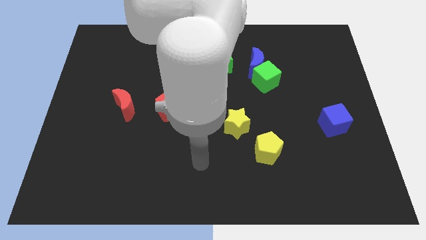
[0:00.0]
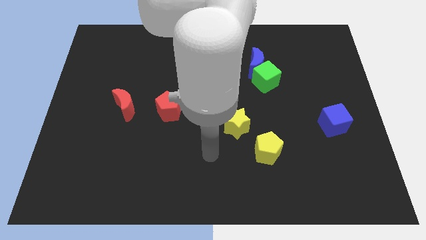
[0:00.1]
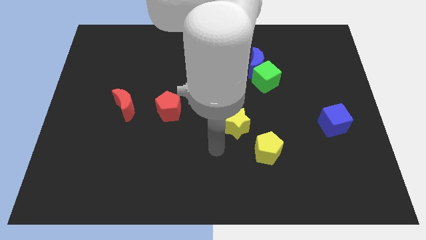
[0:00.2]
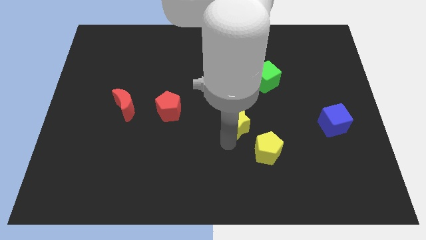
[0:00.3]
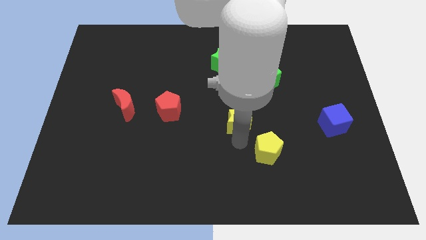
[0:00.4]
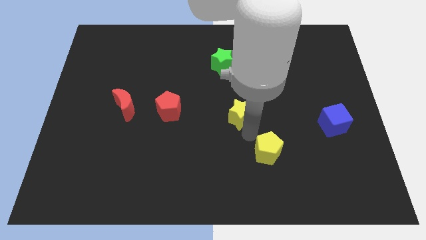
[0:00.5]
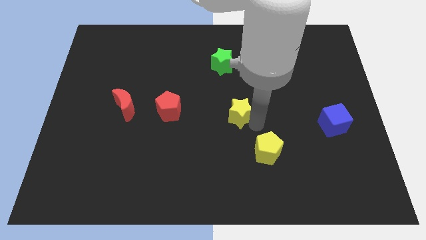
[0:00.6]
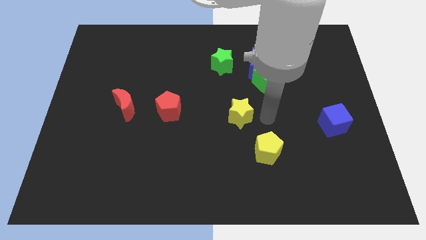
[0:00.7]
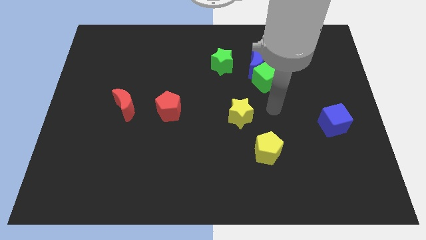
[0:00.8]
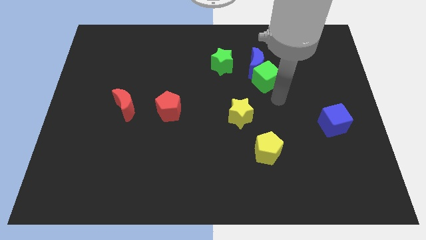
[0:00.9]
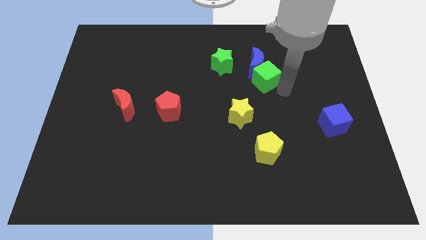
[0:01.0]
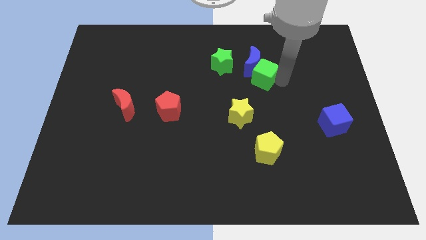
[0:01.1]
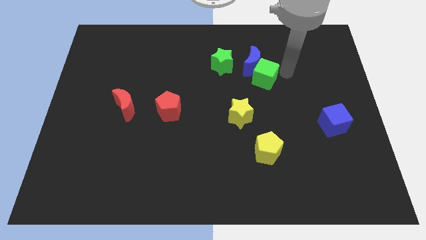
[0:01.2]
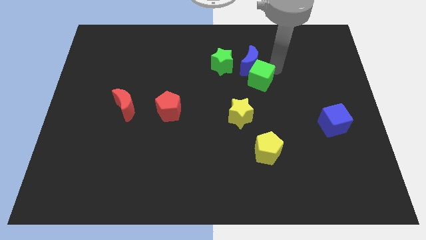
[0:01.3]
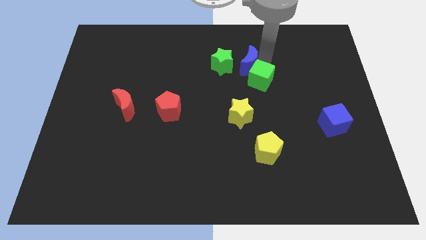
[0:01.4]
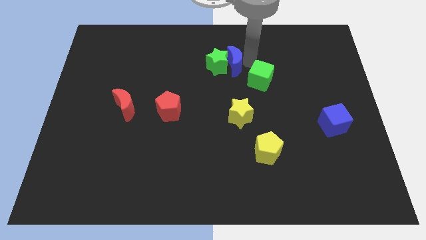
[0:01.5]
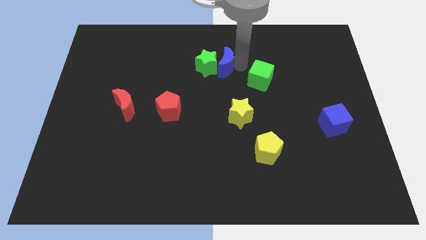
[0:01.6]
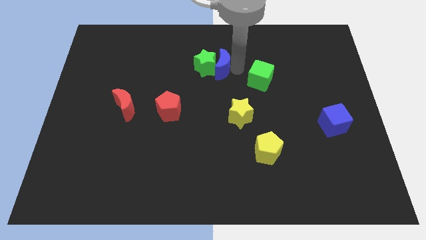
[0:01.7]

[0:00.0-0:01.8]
move the green cube away from the blue moon

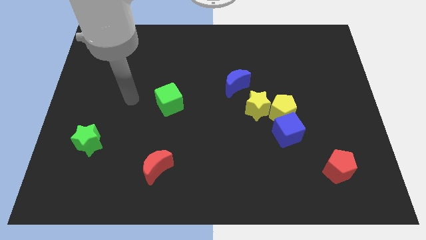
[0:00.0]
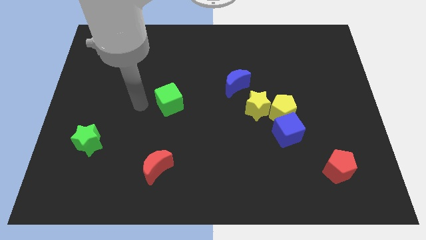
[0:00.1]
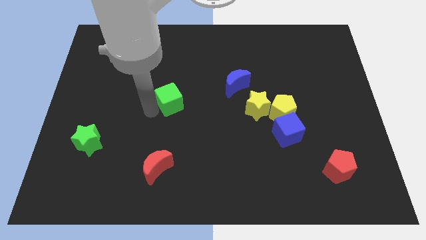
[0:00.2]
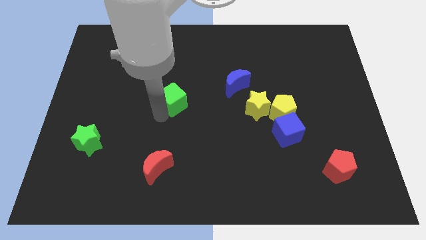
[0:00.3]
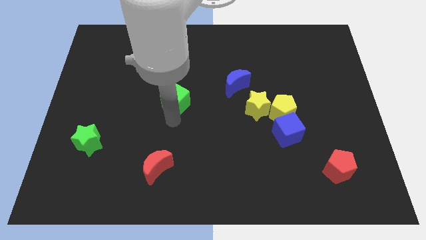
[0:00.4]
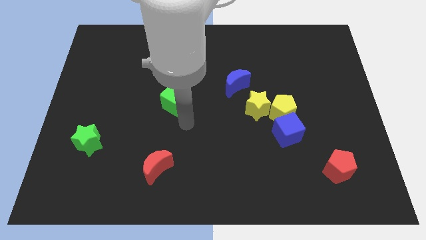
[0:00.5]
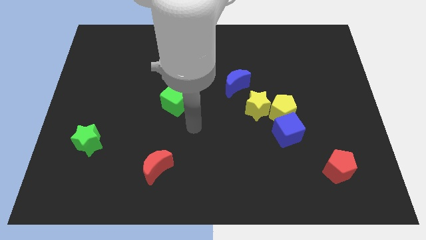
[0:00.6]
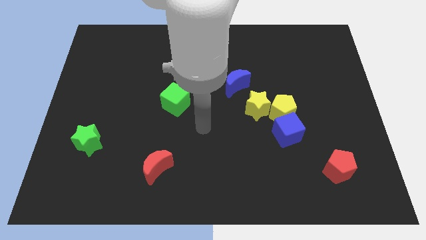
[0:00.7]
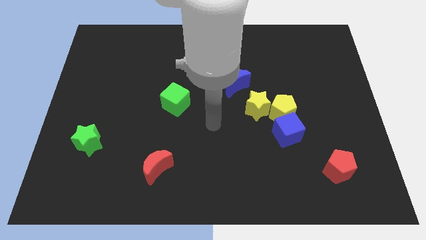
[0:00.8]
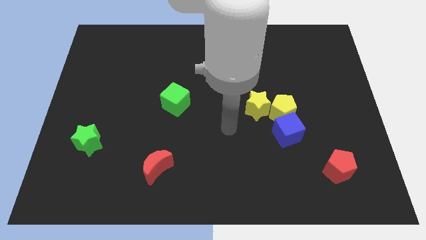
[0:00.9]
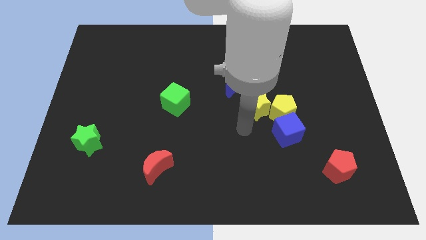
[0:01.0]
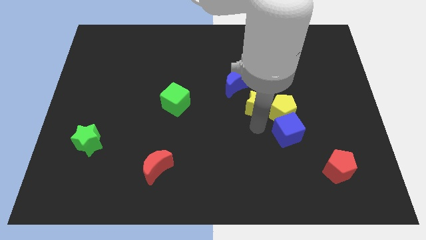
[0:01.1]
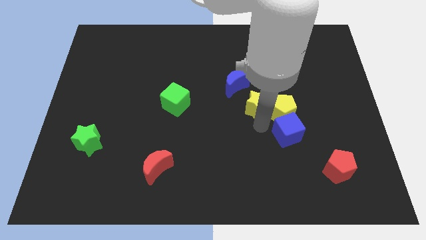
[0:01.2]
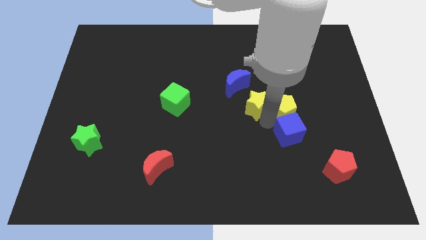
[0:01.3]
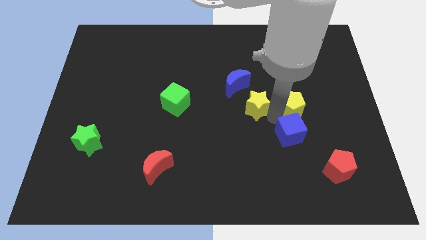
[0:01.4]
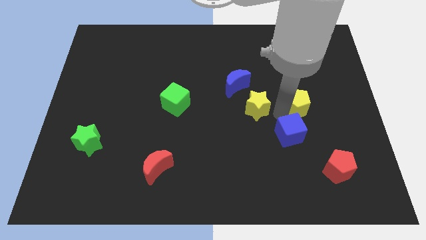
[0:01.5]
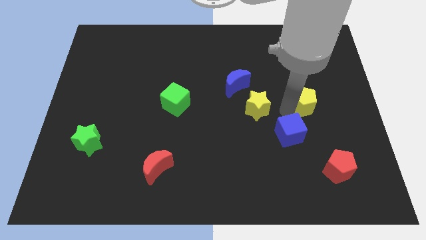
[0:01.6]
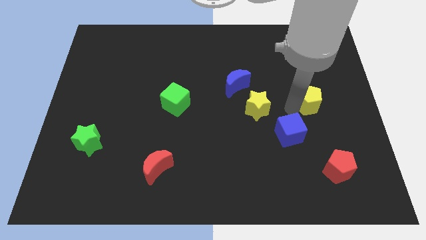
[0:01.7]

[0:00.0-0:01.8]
separate the yellow pentagon from the blue cube and yellow star

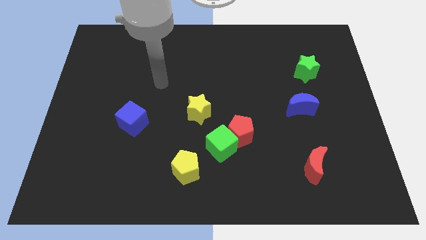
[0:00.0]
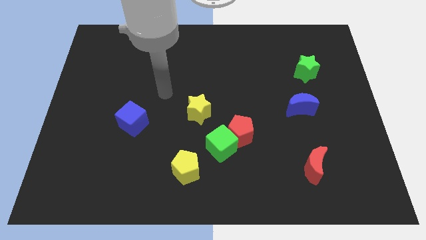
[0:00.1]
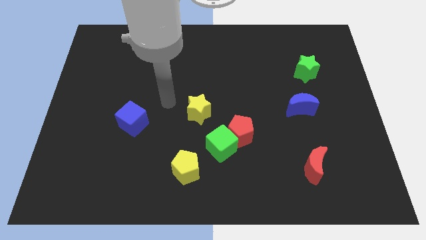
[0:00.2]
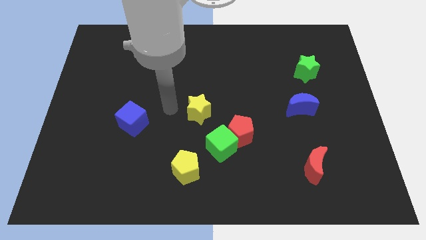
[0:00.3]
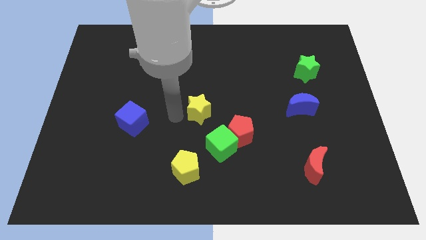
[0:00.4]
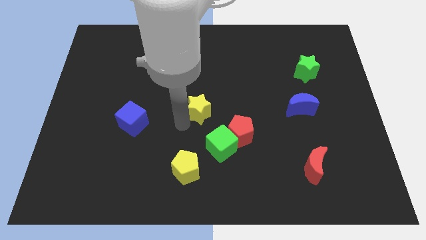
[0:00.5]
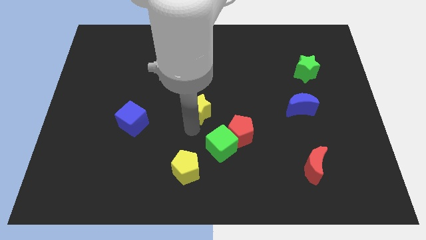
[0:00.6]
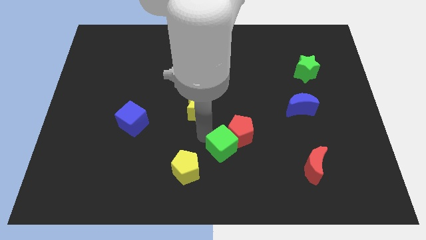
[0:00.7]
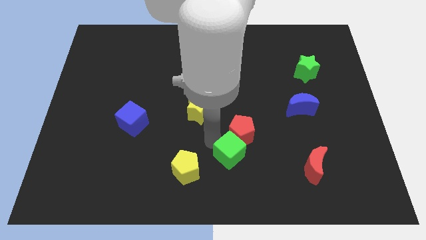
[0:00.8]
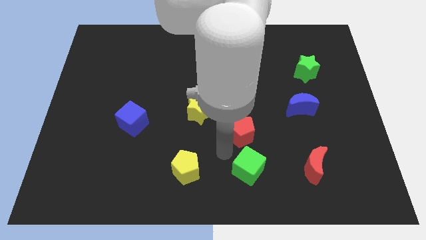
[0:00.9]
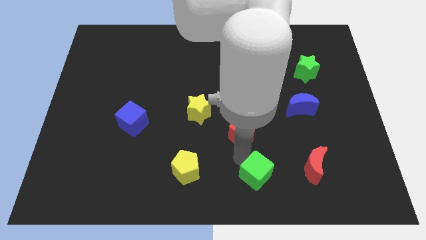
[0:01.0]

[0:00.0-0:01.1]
pull the red pentagon apart from the green cube

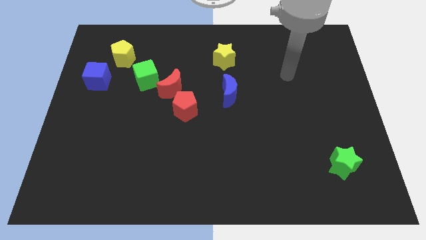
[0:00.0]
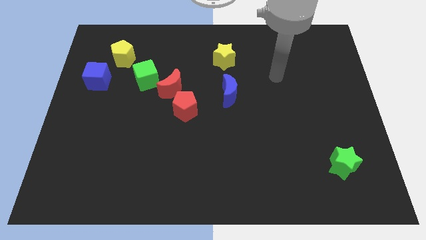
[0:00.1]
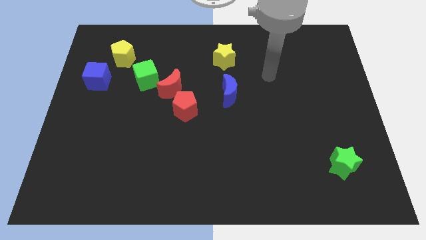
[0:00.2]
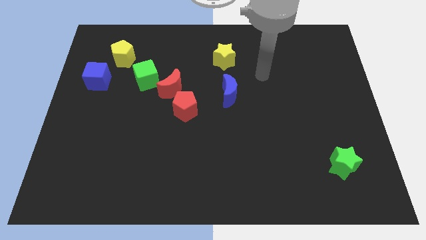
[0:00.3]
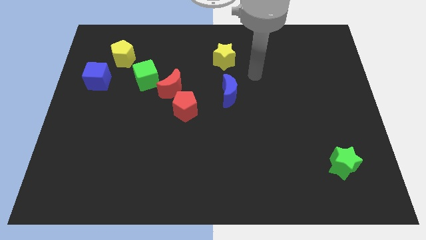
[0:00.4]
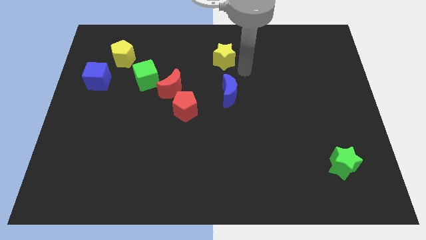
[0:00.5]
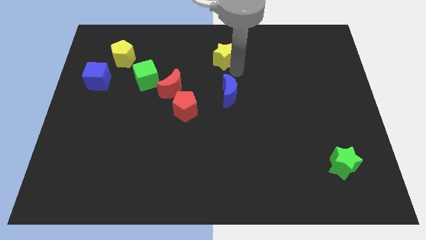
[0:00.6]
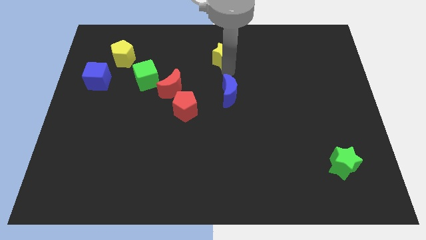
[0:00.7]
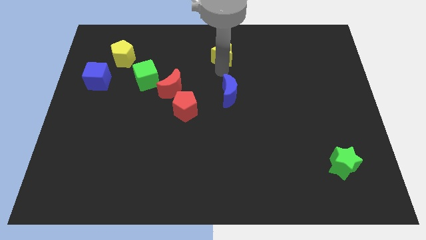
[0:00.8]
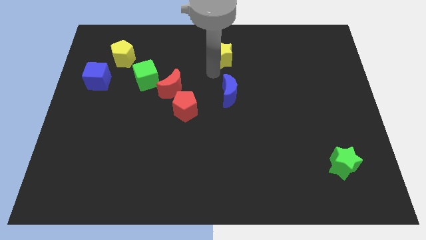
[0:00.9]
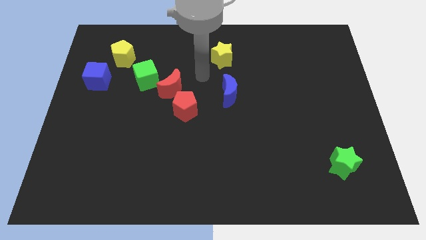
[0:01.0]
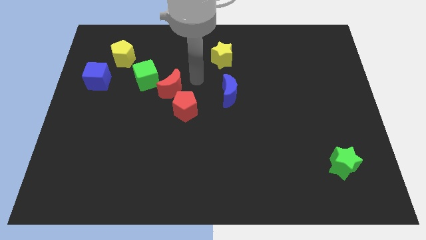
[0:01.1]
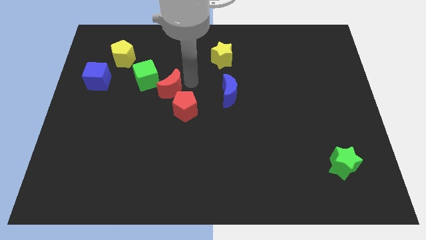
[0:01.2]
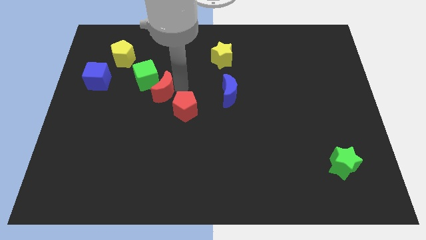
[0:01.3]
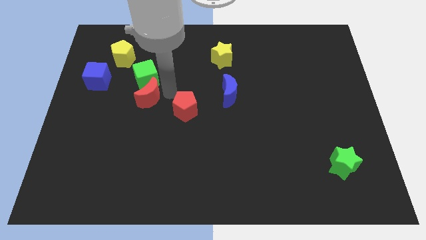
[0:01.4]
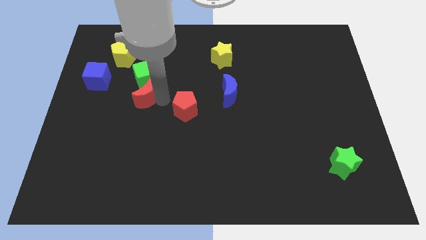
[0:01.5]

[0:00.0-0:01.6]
pull the red pentagon apart from the red moon

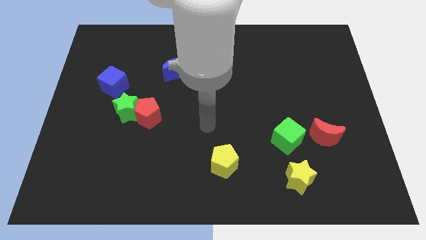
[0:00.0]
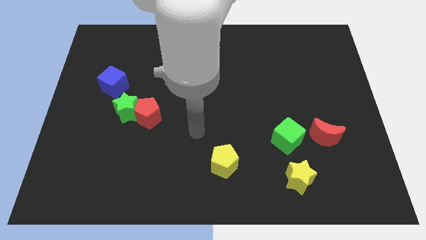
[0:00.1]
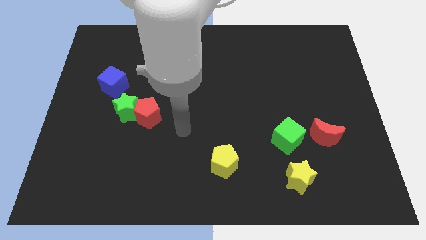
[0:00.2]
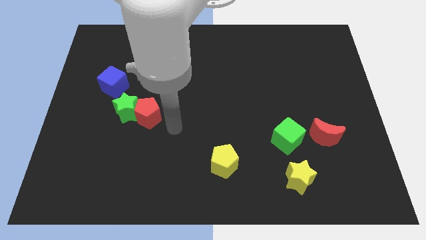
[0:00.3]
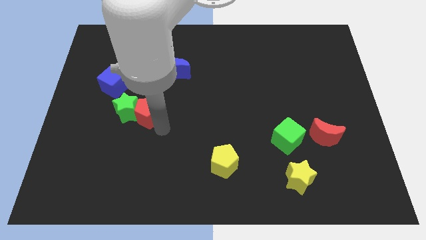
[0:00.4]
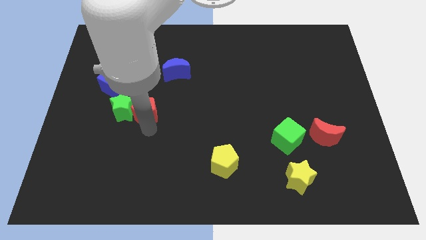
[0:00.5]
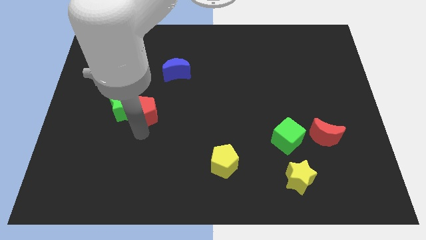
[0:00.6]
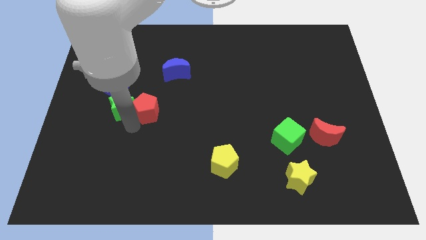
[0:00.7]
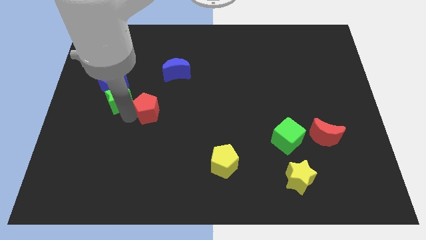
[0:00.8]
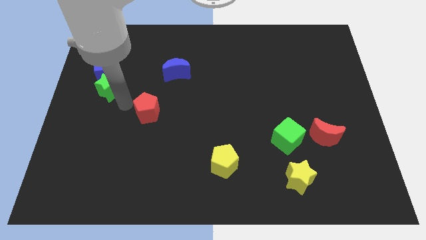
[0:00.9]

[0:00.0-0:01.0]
pull the red pentagon apart from the green star

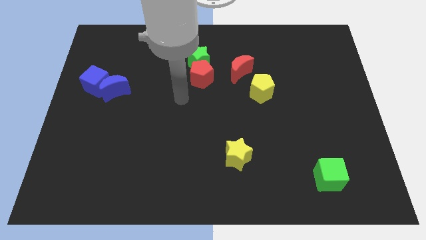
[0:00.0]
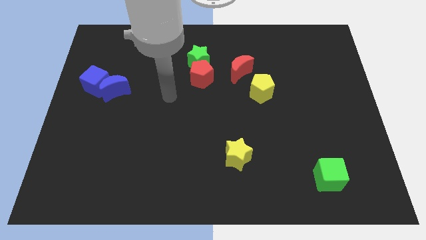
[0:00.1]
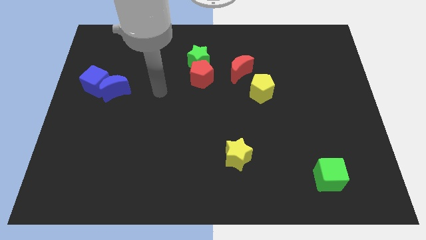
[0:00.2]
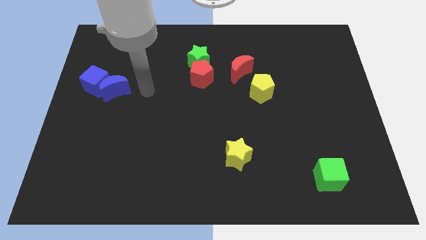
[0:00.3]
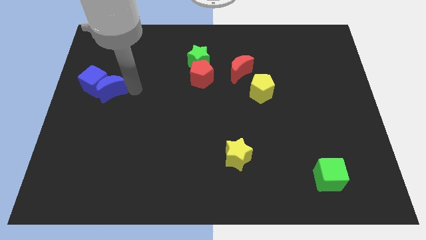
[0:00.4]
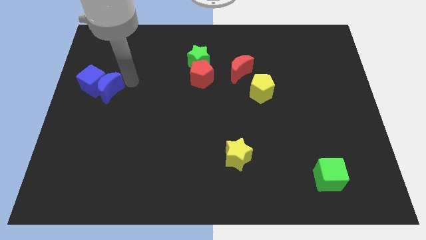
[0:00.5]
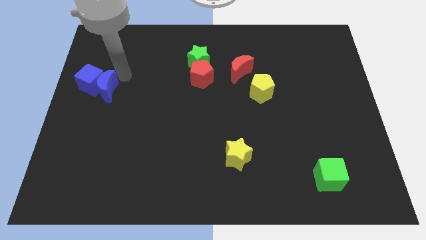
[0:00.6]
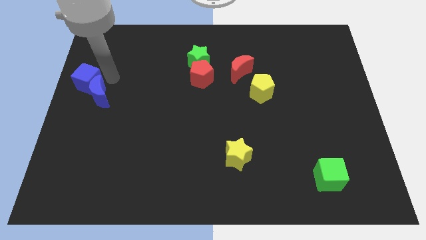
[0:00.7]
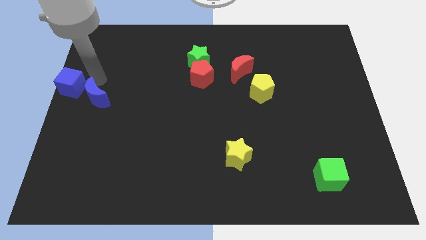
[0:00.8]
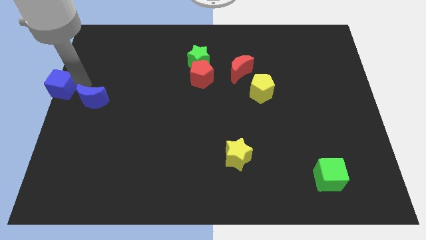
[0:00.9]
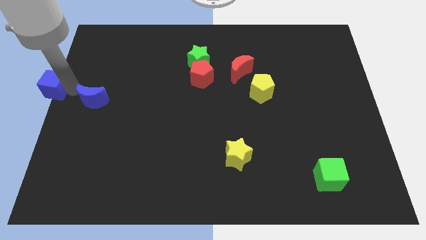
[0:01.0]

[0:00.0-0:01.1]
separate the blue moon from the blue cube

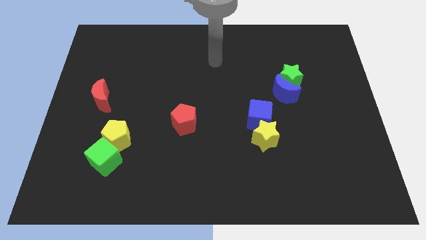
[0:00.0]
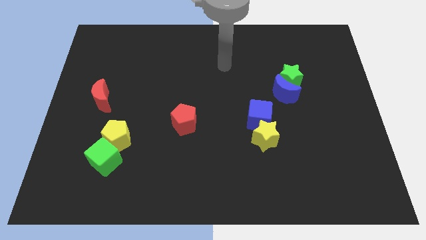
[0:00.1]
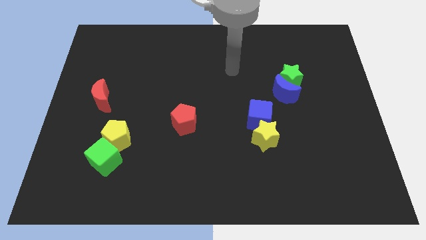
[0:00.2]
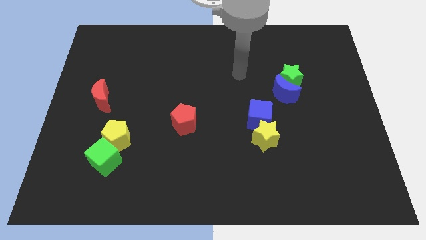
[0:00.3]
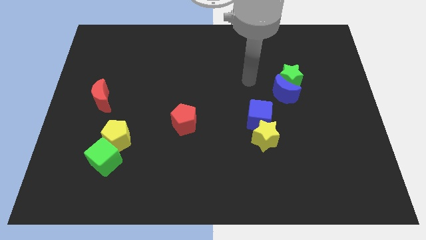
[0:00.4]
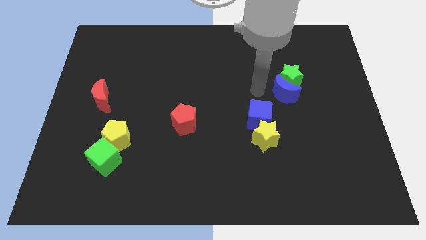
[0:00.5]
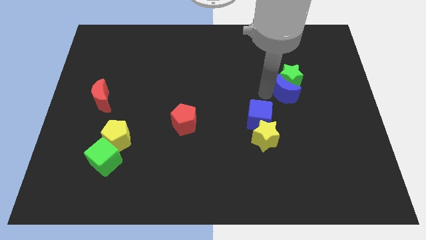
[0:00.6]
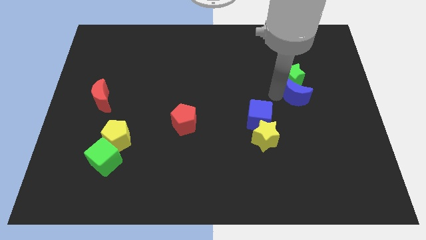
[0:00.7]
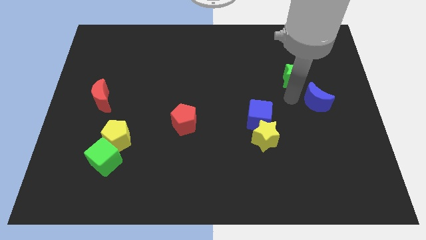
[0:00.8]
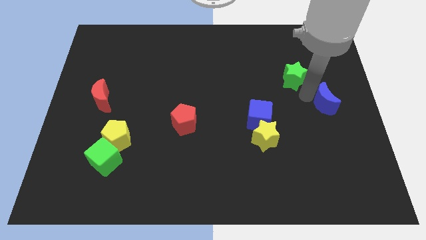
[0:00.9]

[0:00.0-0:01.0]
separate the green star from the blue moon
